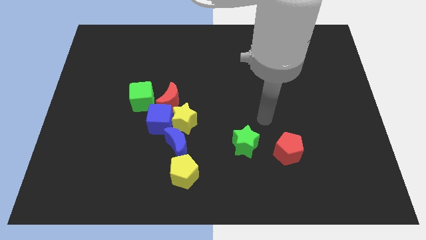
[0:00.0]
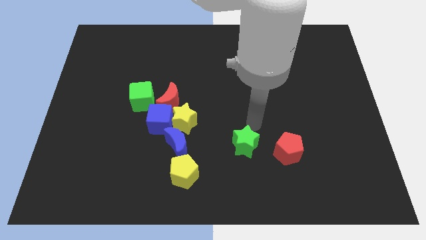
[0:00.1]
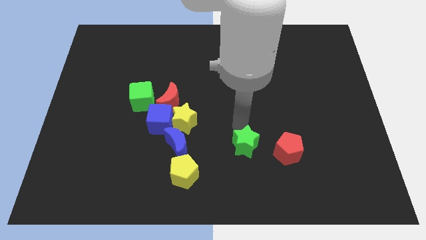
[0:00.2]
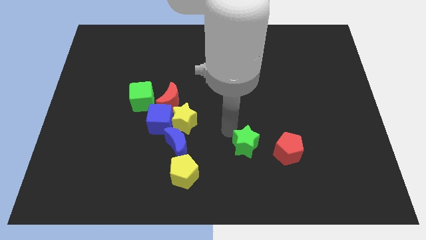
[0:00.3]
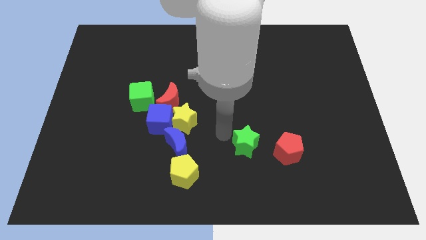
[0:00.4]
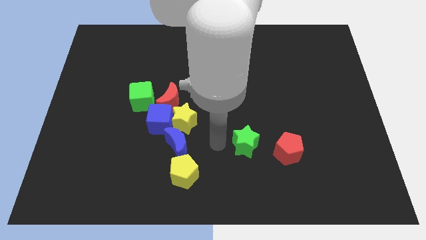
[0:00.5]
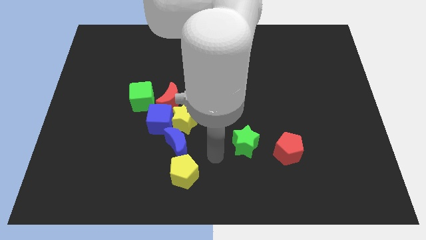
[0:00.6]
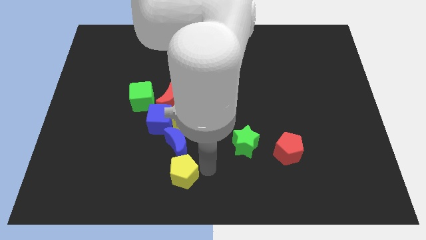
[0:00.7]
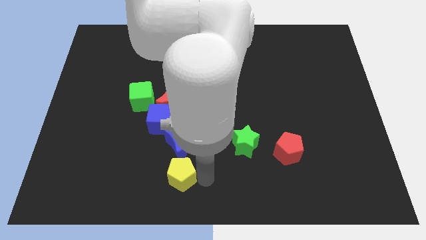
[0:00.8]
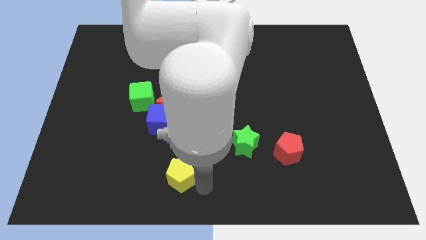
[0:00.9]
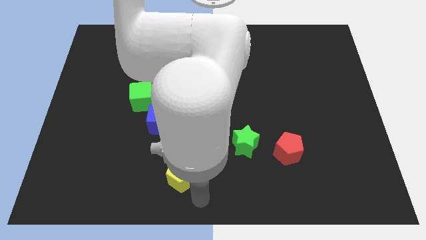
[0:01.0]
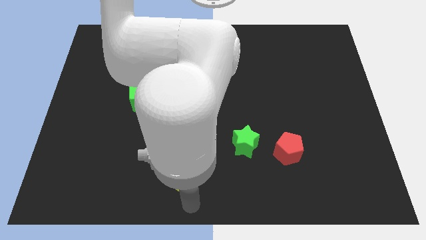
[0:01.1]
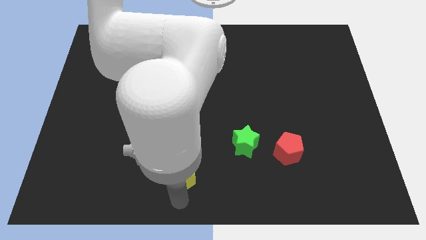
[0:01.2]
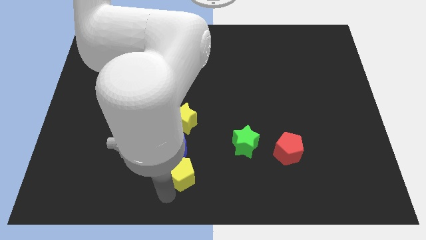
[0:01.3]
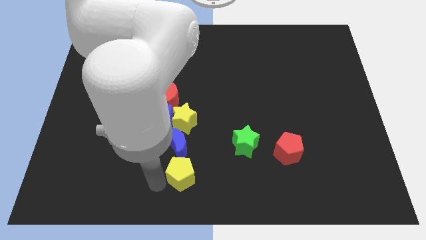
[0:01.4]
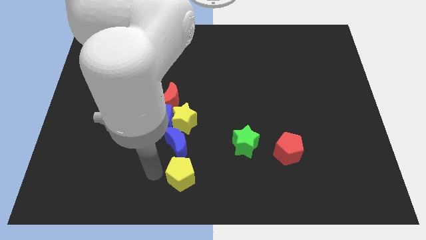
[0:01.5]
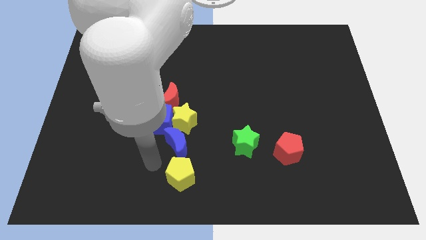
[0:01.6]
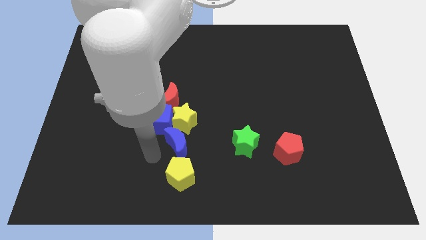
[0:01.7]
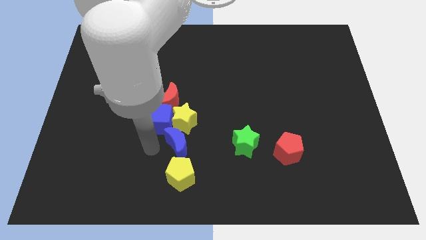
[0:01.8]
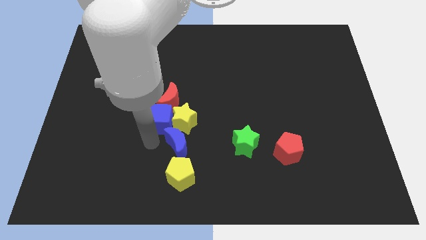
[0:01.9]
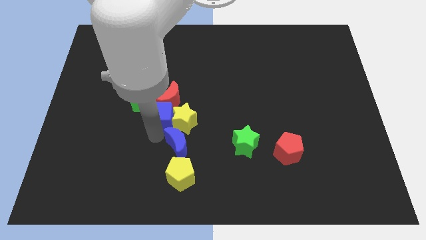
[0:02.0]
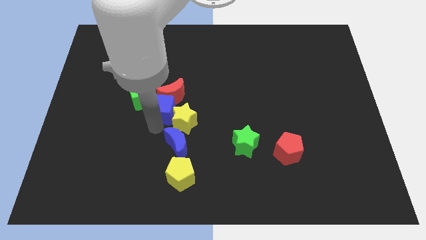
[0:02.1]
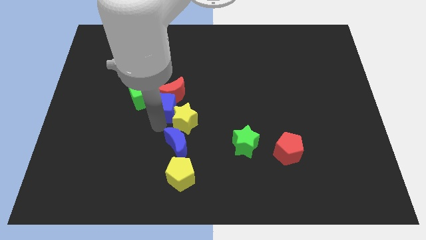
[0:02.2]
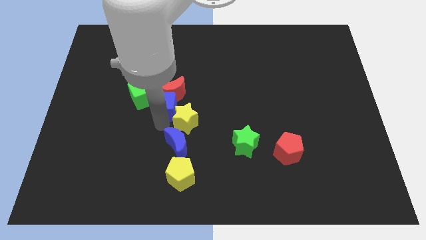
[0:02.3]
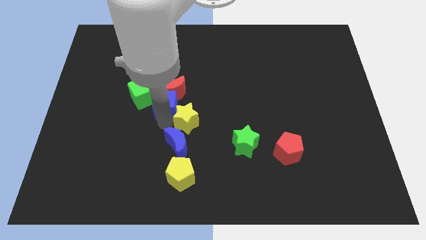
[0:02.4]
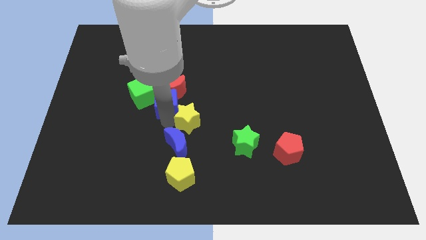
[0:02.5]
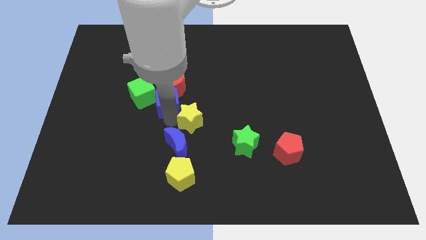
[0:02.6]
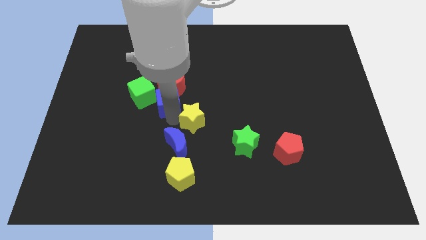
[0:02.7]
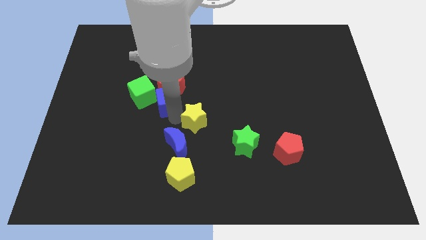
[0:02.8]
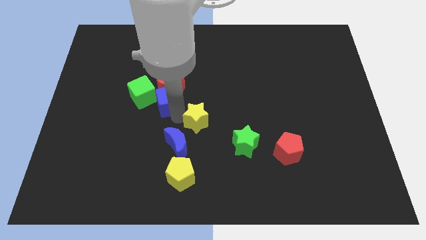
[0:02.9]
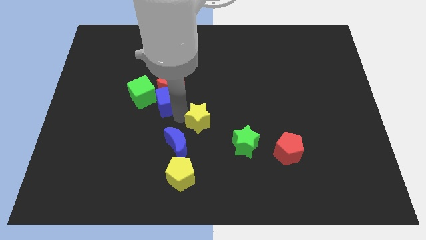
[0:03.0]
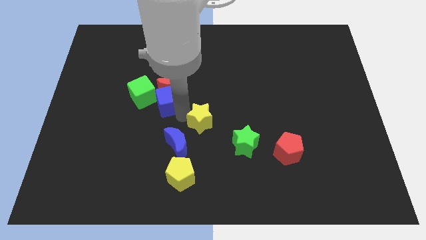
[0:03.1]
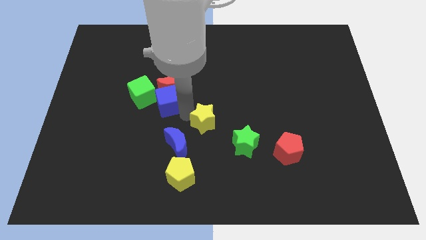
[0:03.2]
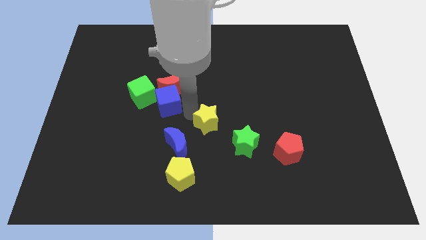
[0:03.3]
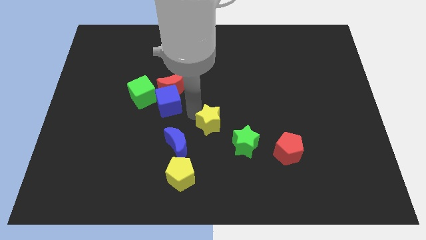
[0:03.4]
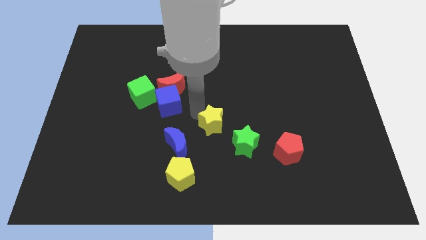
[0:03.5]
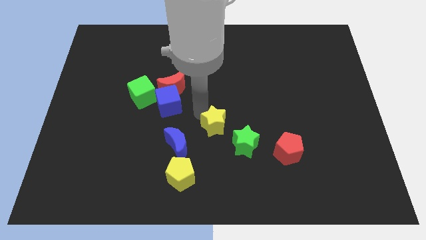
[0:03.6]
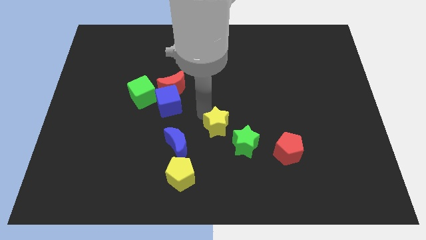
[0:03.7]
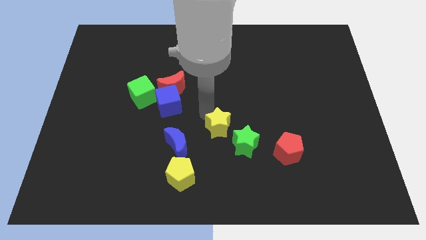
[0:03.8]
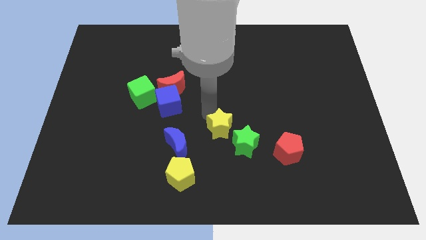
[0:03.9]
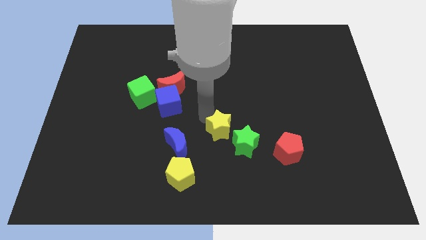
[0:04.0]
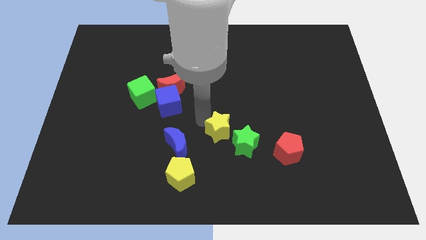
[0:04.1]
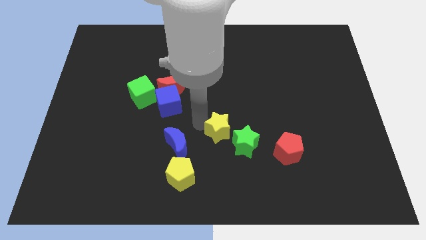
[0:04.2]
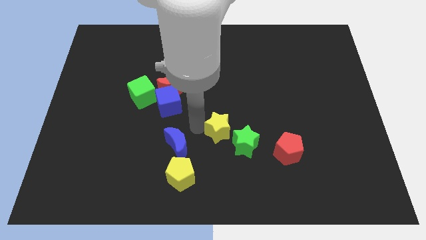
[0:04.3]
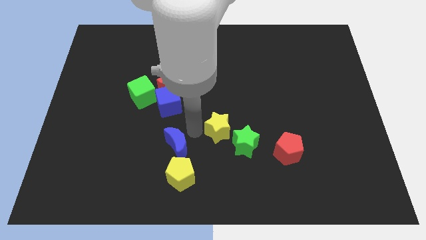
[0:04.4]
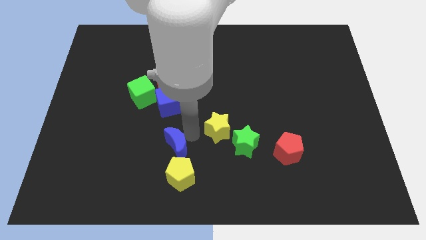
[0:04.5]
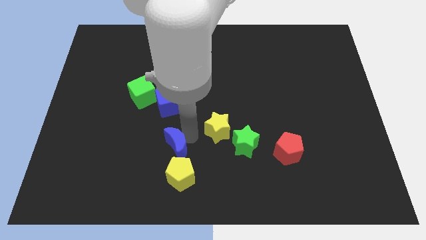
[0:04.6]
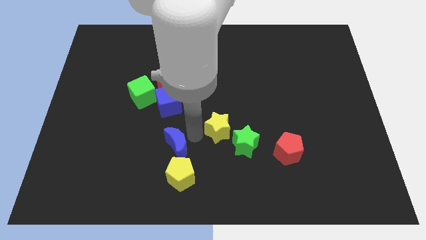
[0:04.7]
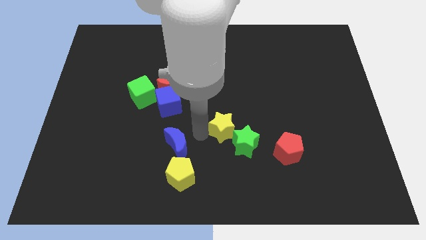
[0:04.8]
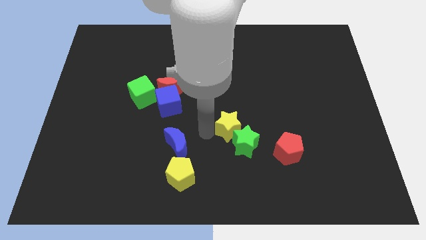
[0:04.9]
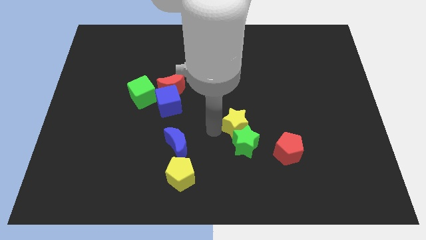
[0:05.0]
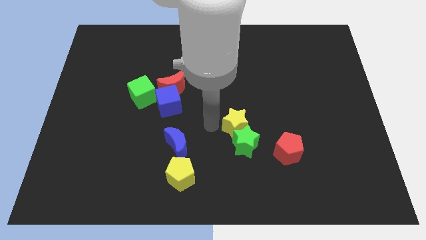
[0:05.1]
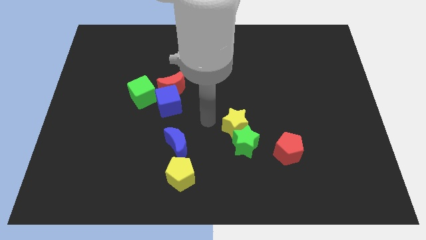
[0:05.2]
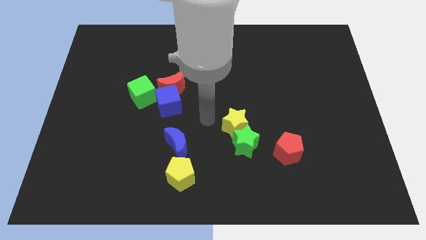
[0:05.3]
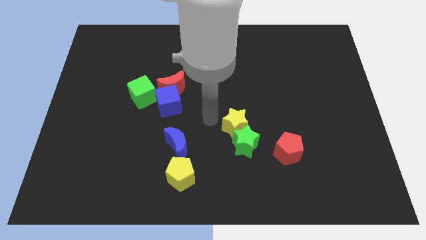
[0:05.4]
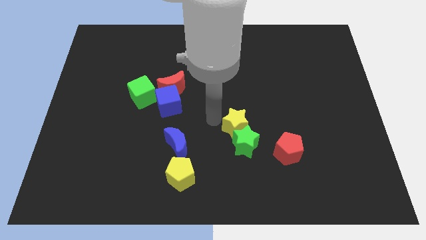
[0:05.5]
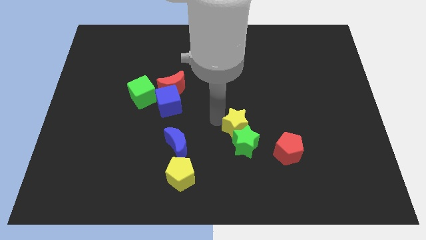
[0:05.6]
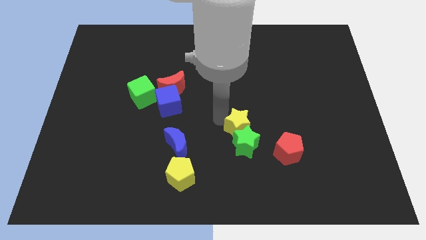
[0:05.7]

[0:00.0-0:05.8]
slide the yellow star diagonally up and to the left of the red pentagon

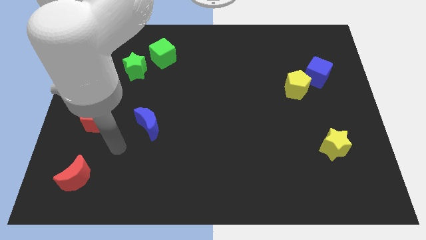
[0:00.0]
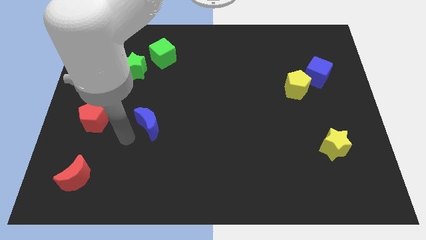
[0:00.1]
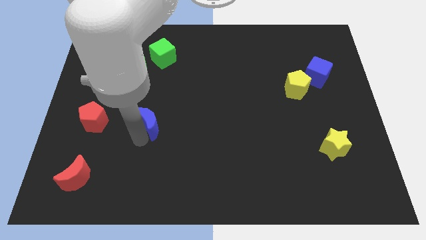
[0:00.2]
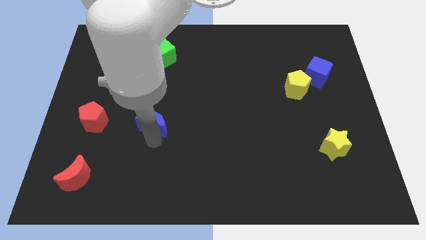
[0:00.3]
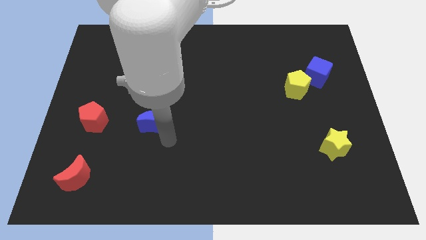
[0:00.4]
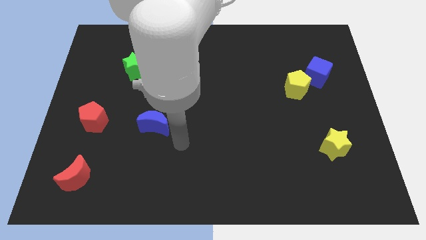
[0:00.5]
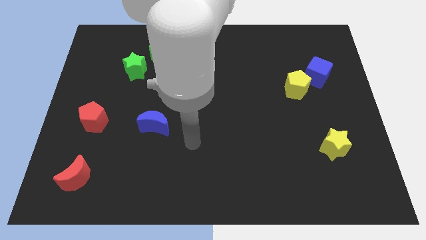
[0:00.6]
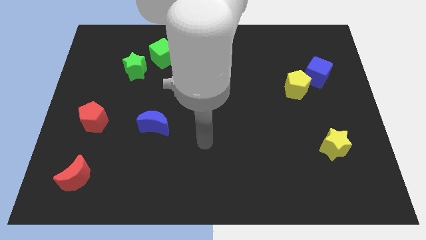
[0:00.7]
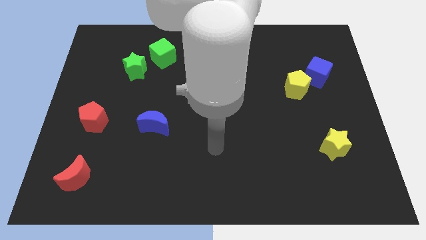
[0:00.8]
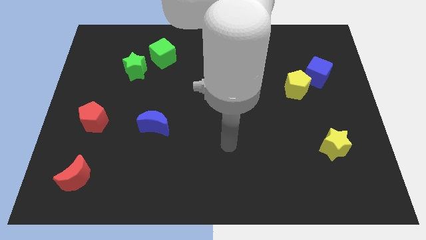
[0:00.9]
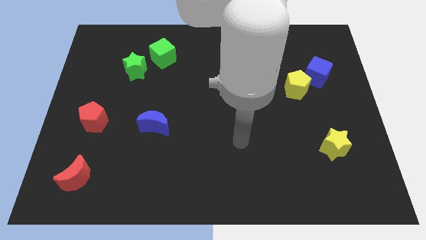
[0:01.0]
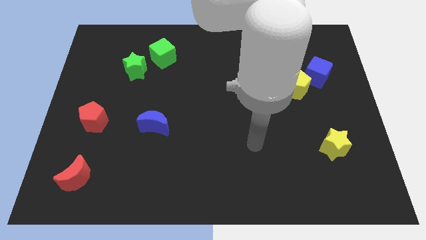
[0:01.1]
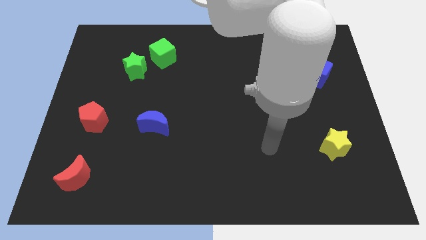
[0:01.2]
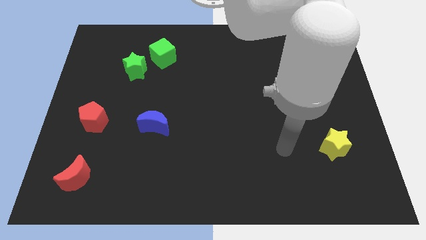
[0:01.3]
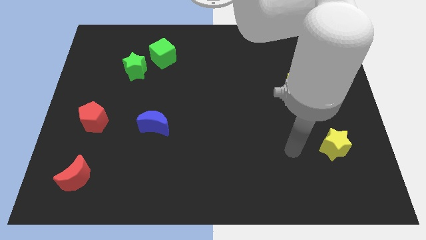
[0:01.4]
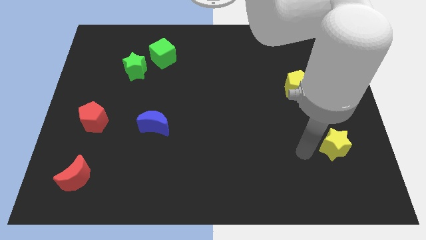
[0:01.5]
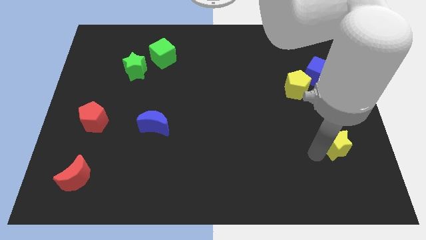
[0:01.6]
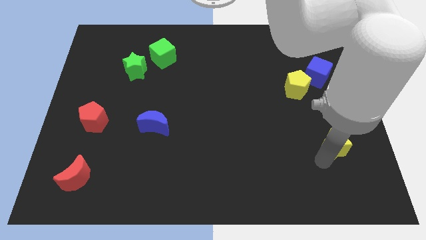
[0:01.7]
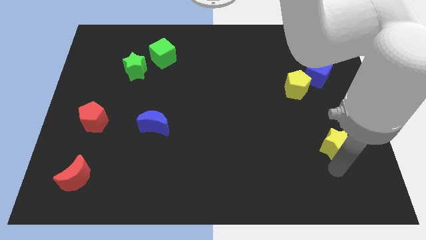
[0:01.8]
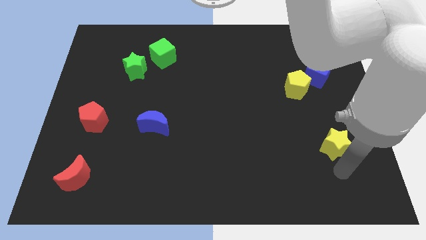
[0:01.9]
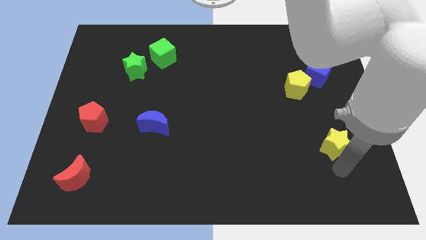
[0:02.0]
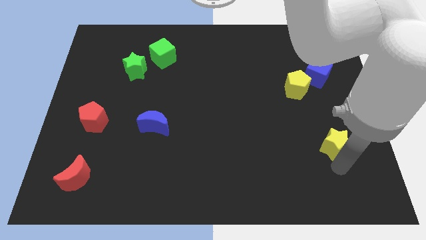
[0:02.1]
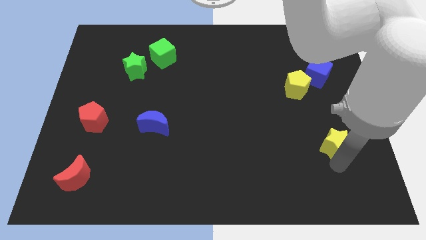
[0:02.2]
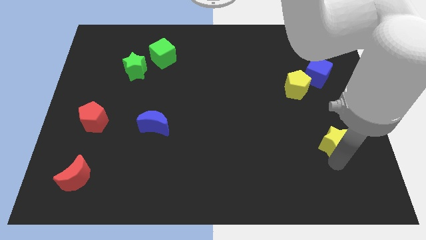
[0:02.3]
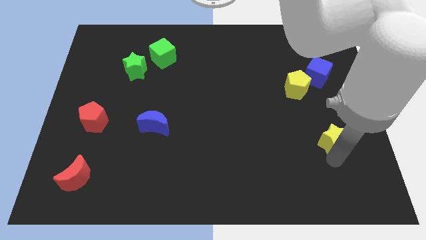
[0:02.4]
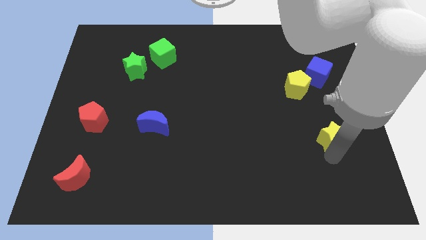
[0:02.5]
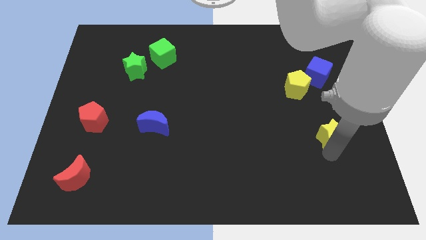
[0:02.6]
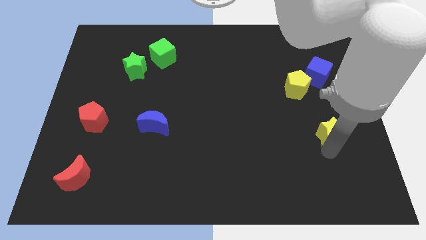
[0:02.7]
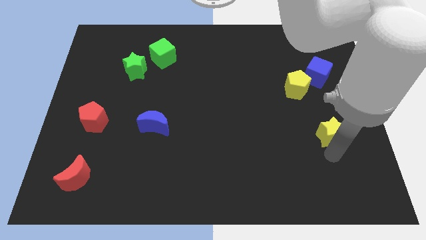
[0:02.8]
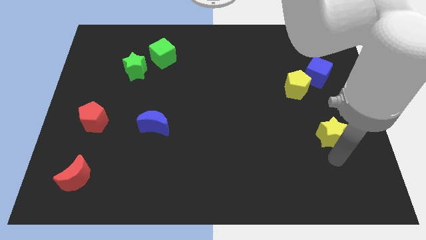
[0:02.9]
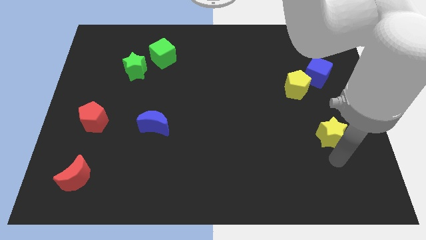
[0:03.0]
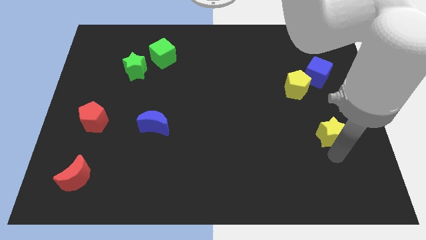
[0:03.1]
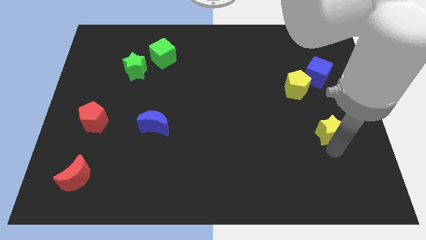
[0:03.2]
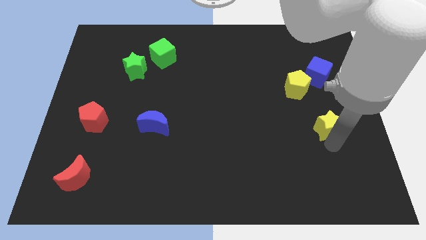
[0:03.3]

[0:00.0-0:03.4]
slide the yellow star to the bottom side of the blue cube
